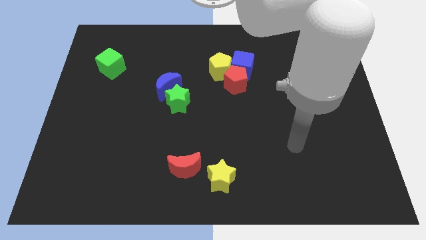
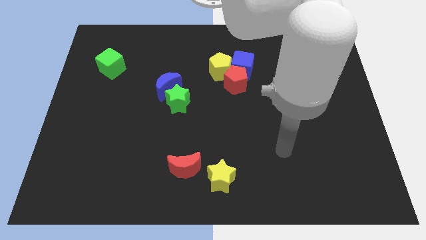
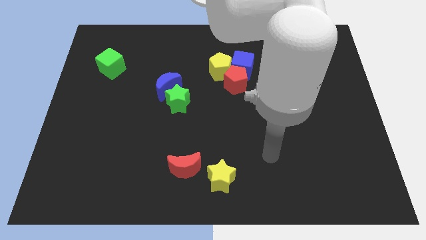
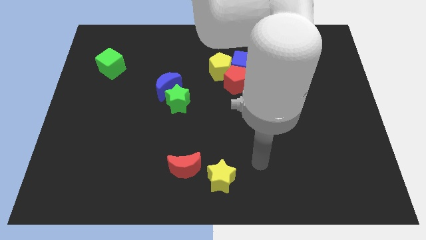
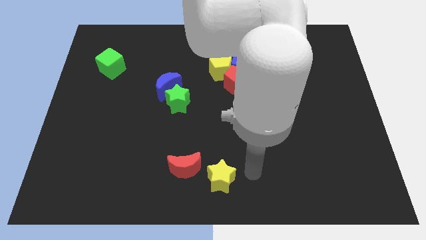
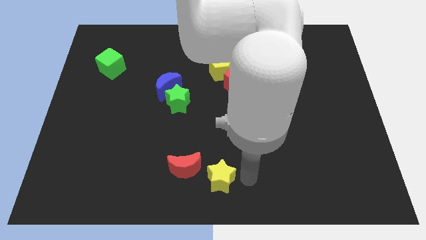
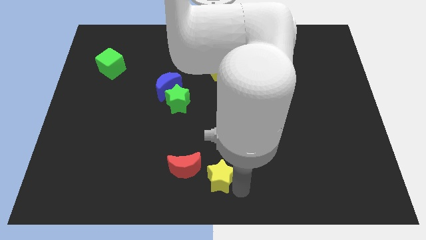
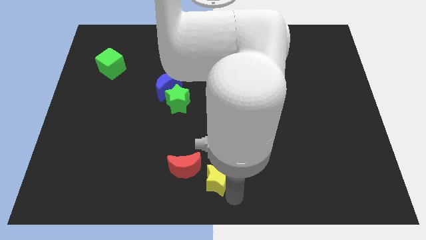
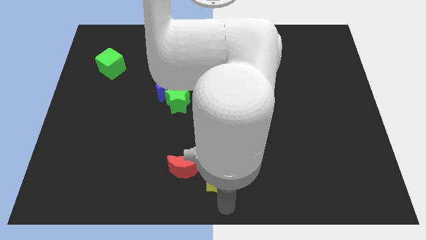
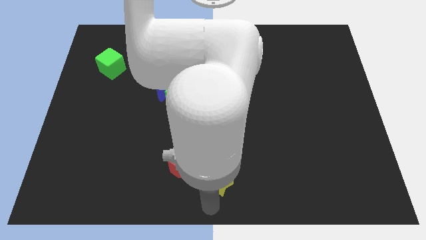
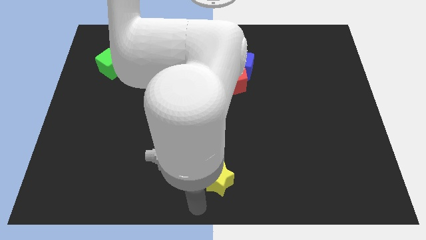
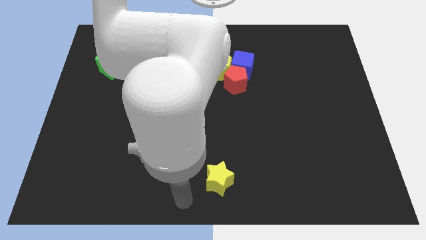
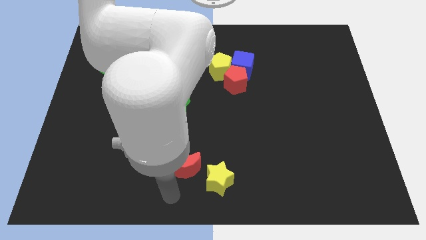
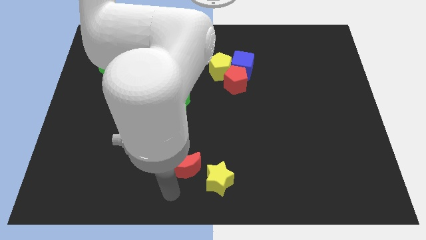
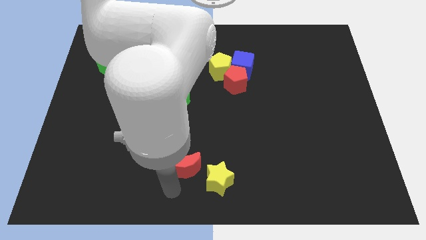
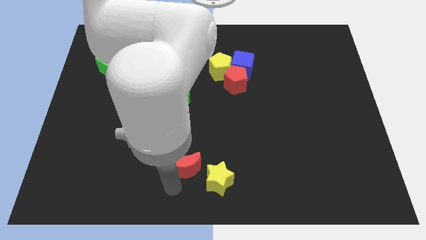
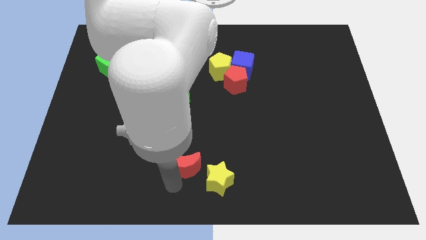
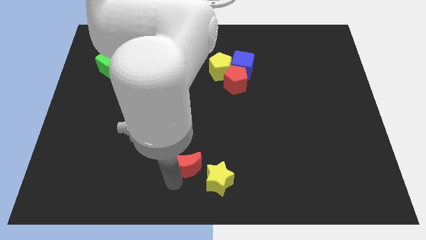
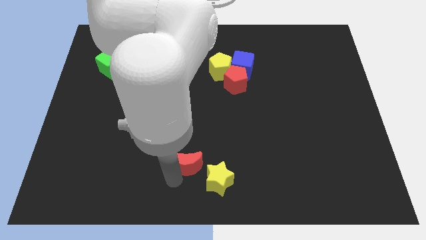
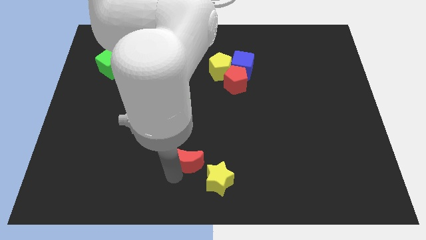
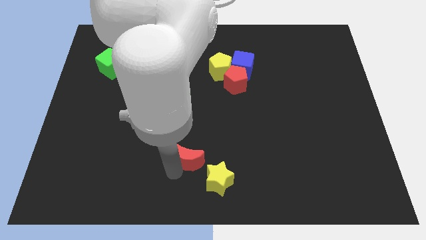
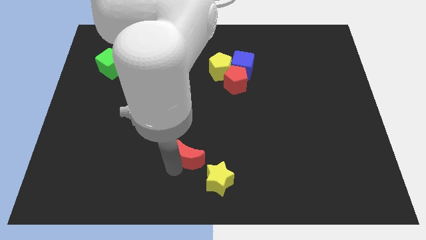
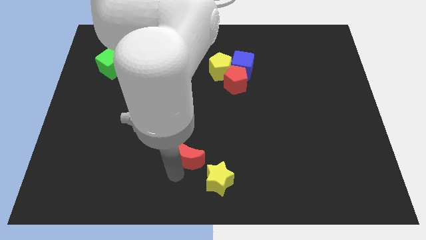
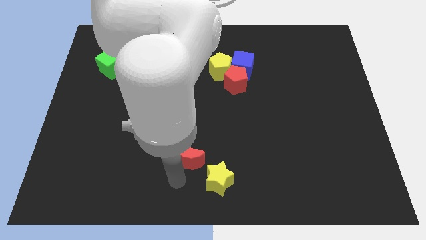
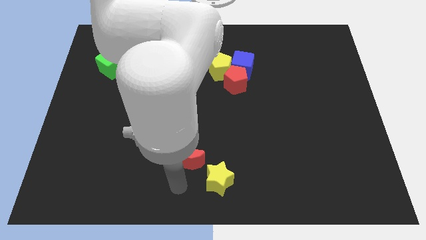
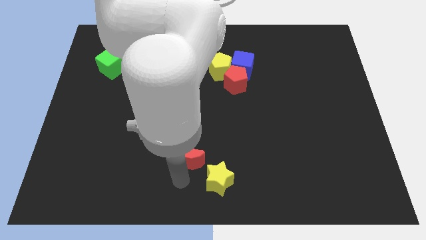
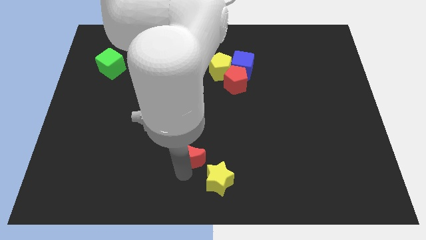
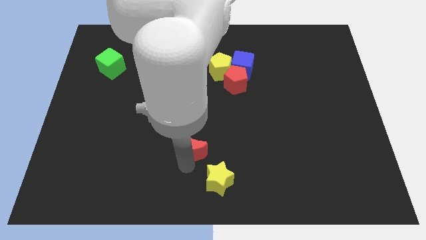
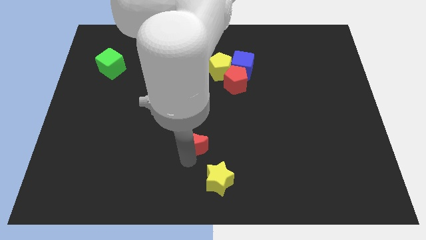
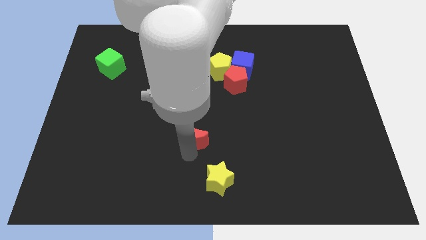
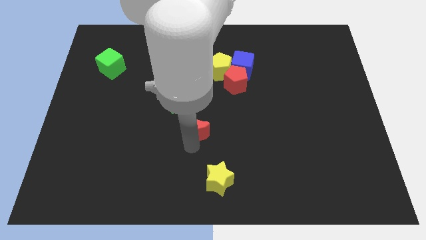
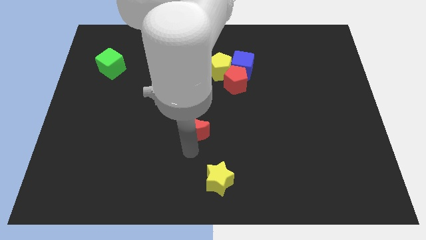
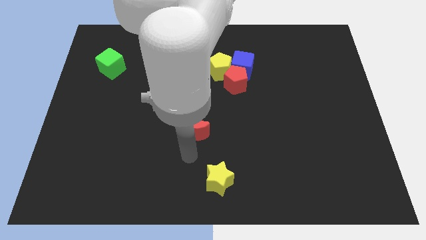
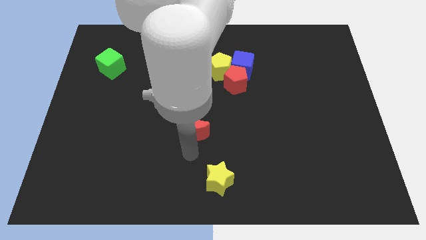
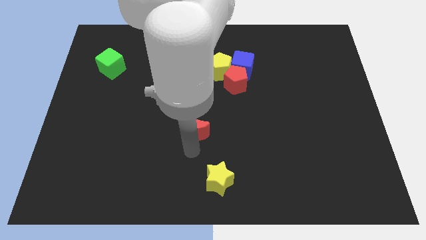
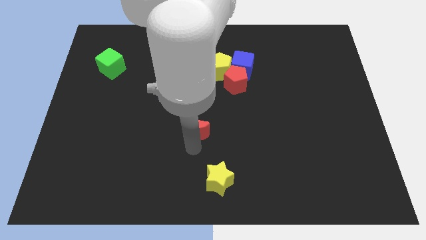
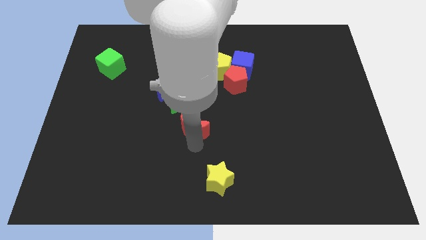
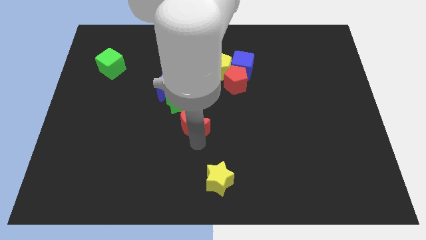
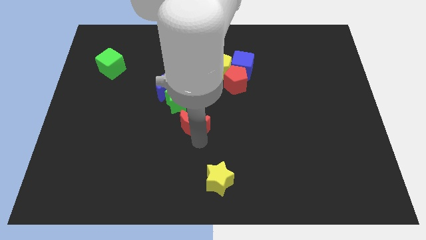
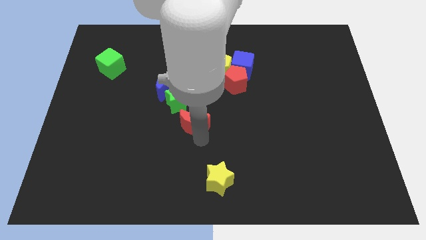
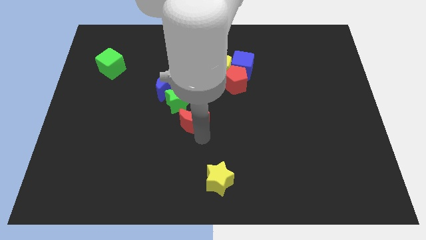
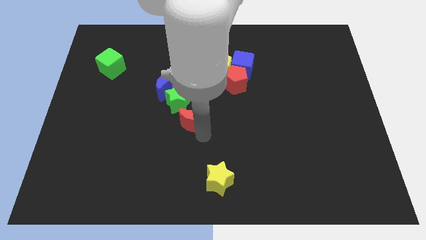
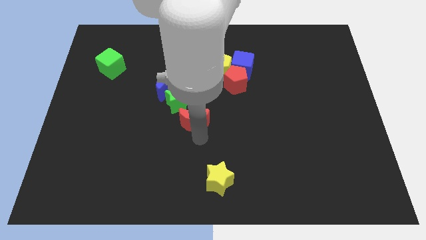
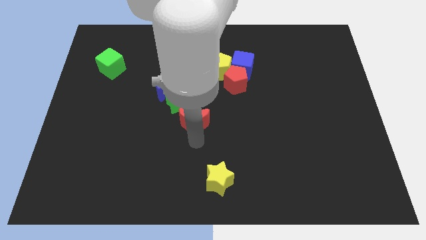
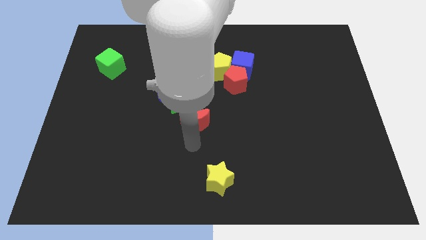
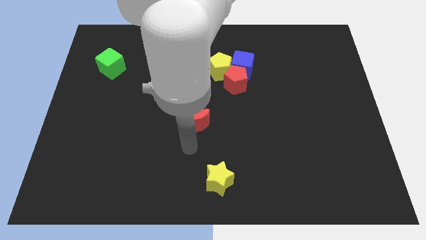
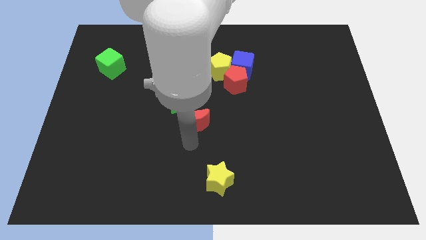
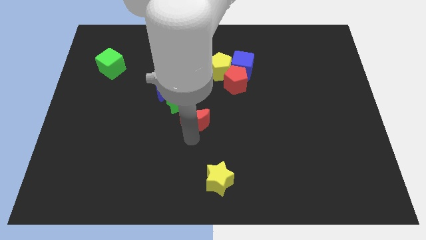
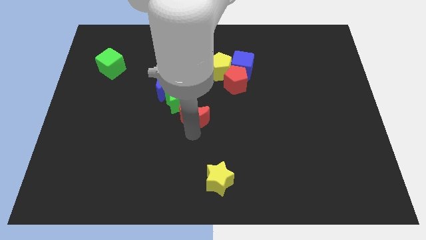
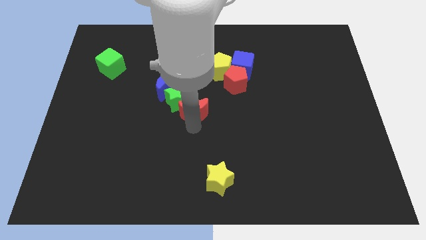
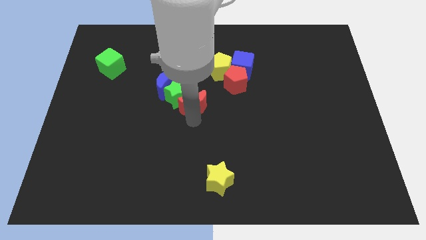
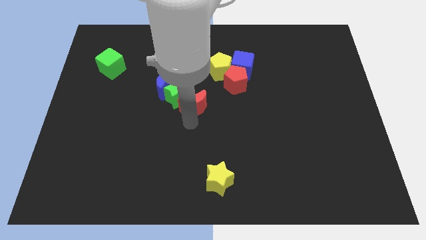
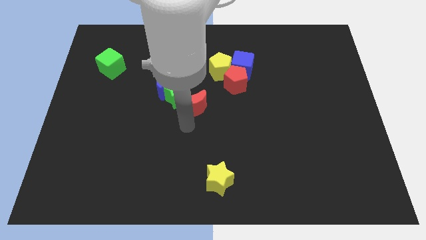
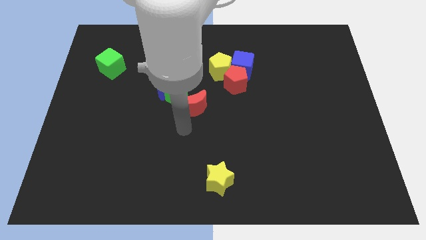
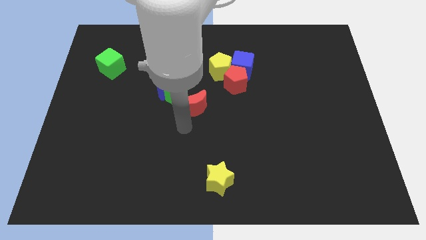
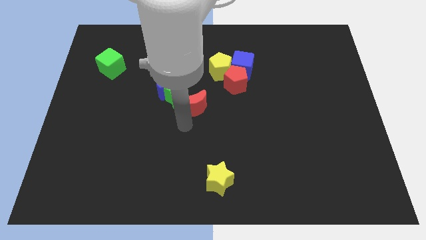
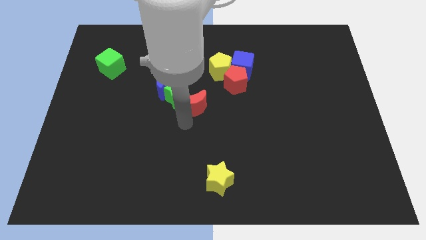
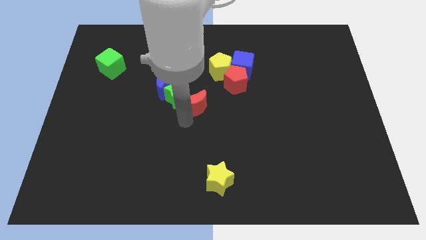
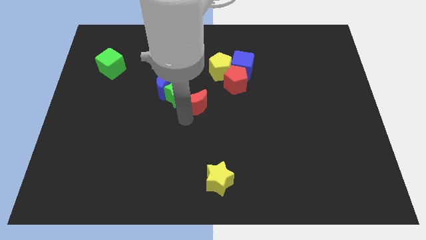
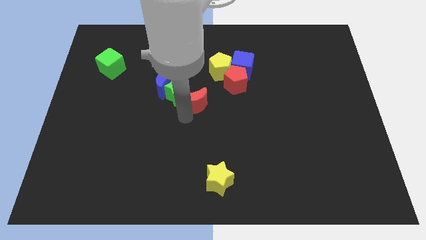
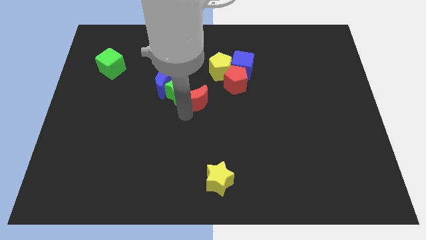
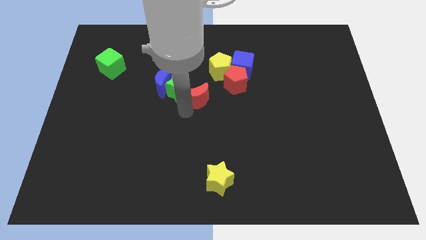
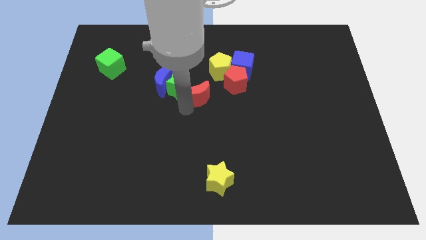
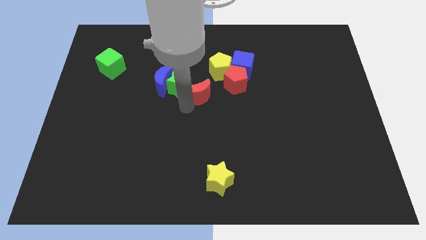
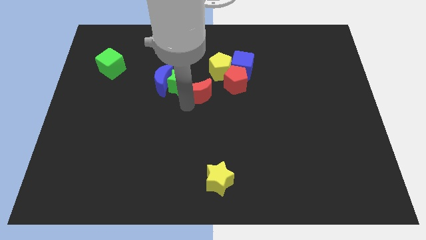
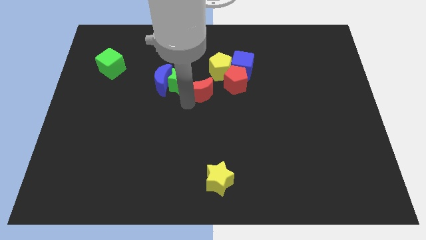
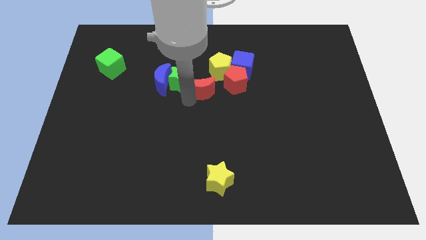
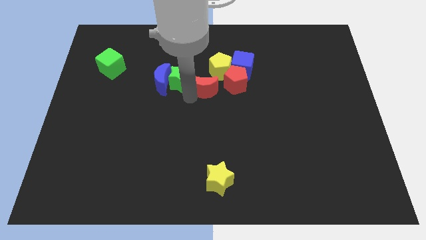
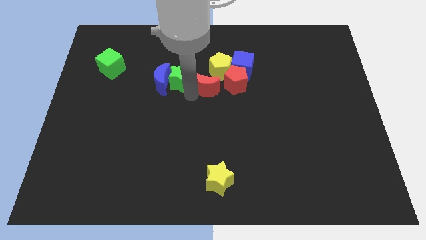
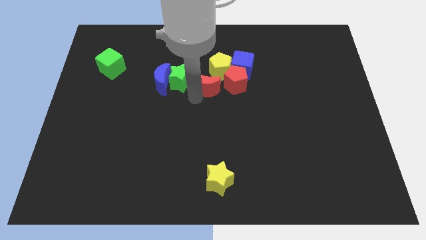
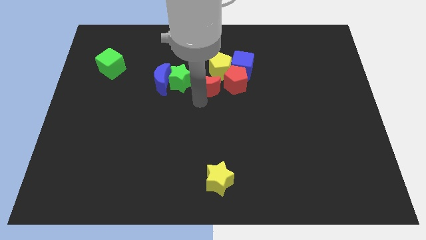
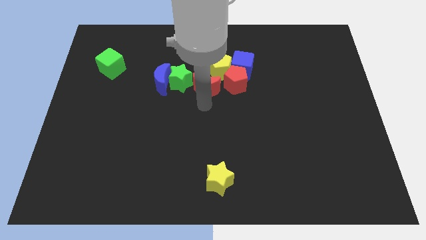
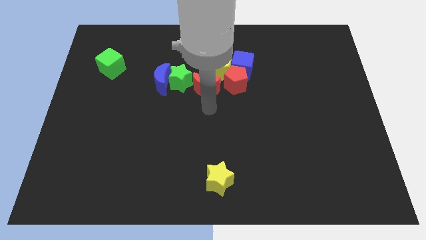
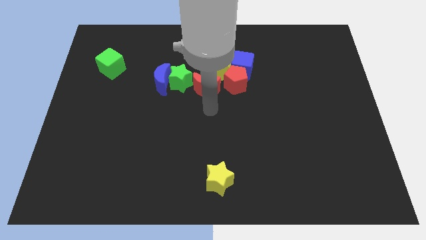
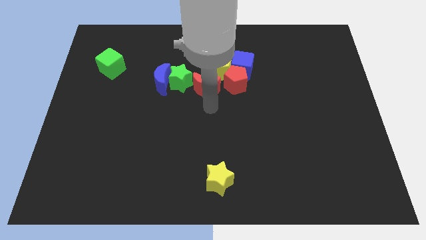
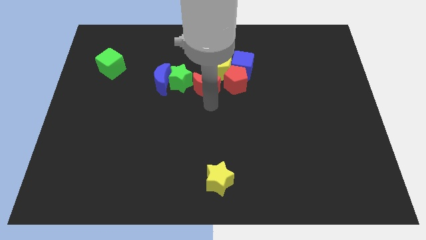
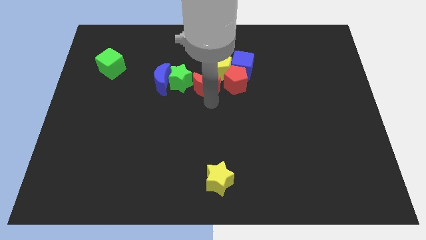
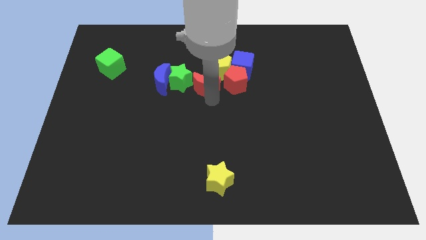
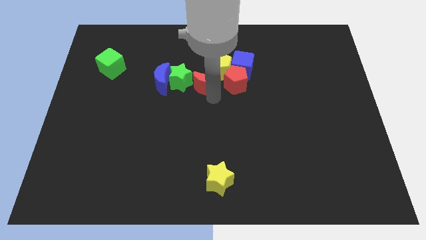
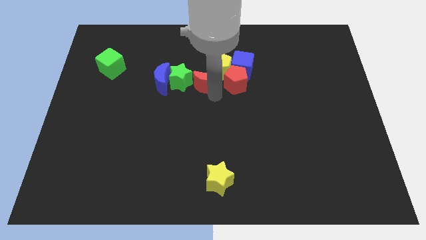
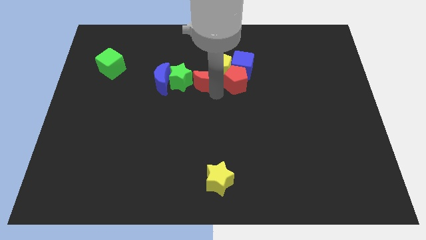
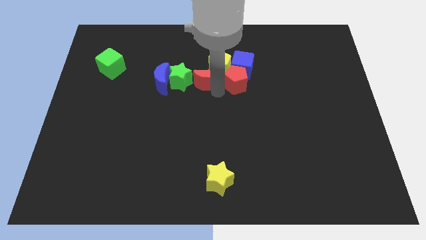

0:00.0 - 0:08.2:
move the red moon just left of the blue cube
